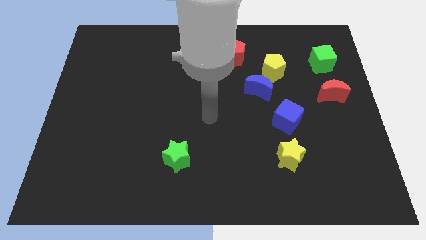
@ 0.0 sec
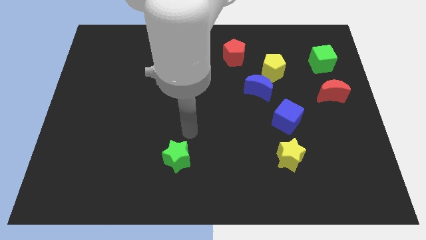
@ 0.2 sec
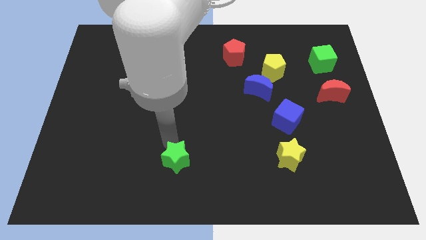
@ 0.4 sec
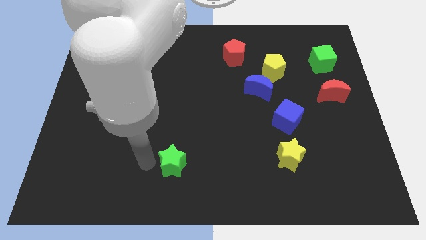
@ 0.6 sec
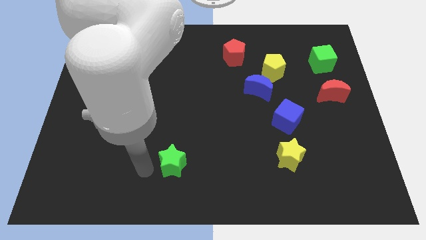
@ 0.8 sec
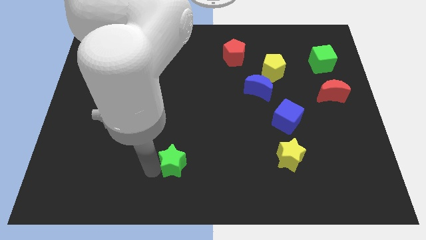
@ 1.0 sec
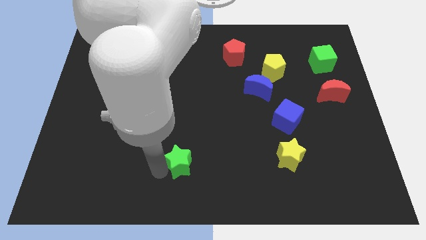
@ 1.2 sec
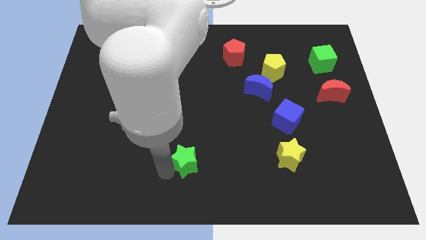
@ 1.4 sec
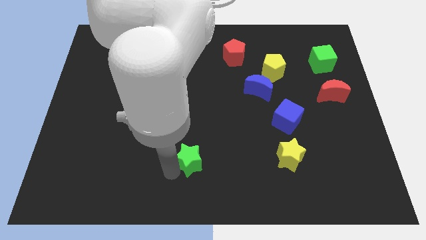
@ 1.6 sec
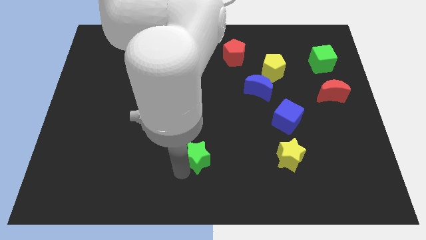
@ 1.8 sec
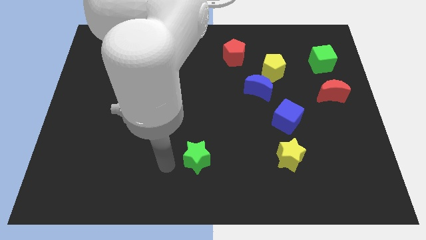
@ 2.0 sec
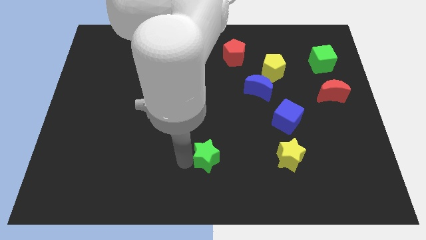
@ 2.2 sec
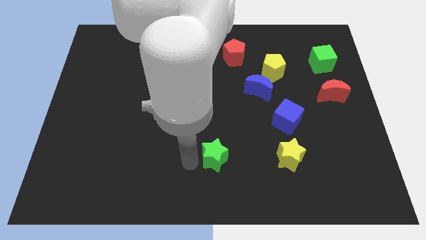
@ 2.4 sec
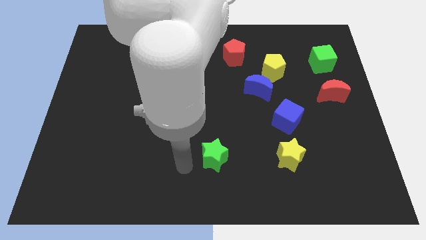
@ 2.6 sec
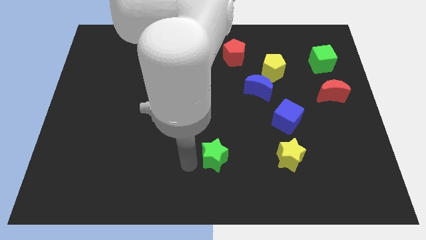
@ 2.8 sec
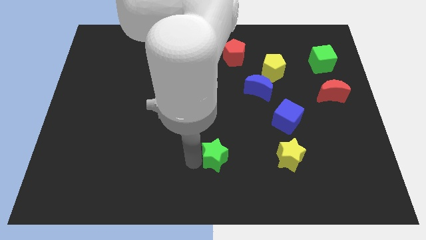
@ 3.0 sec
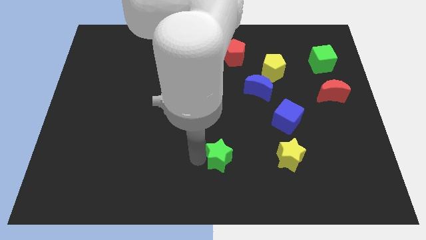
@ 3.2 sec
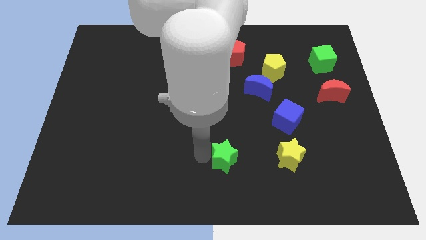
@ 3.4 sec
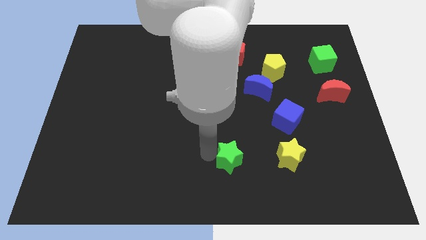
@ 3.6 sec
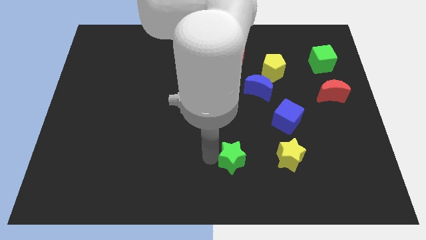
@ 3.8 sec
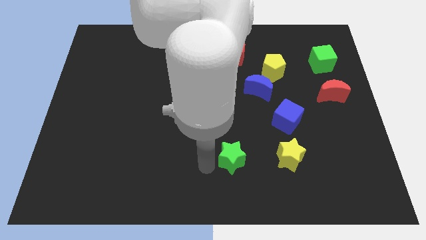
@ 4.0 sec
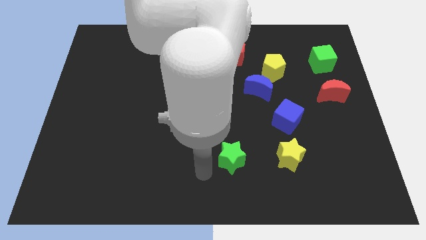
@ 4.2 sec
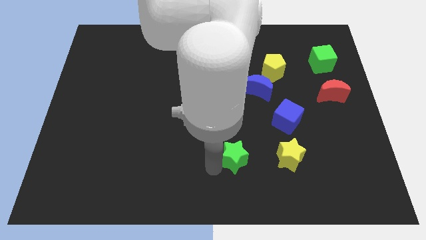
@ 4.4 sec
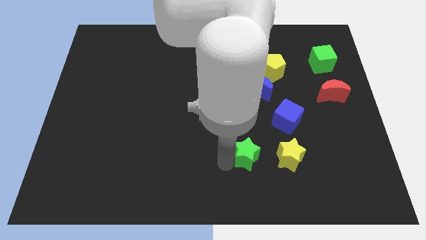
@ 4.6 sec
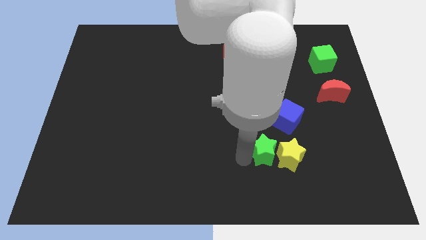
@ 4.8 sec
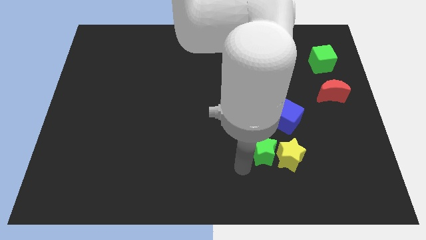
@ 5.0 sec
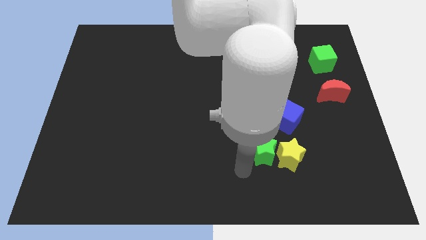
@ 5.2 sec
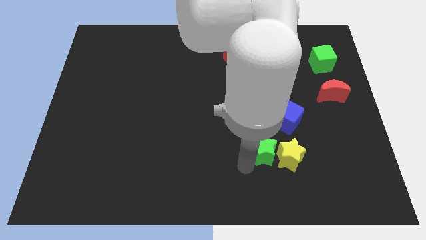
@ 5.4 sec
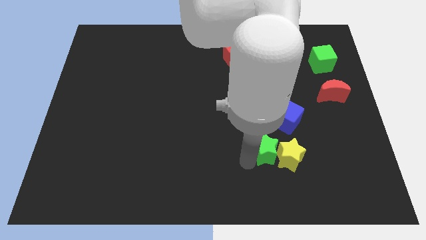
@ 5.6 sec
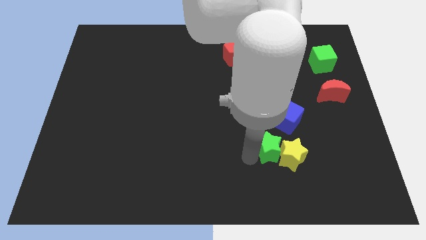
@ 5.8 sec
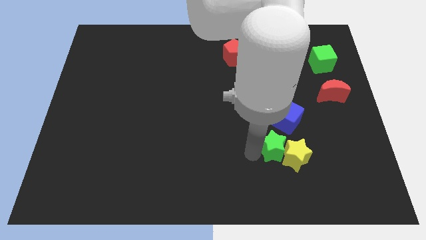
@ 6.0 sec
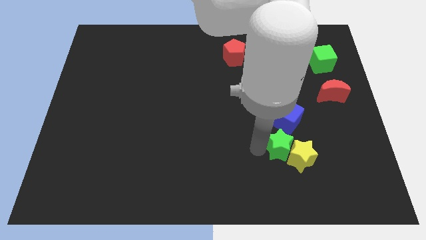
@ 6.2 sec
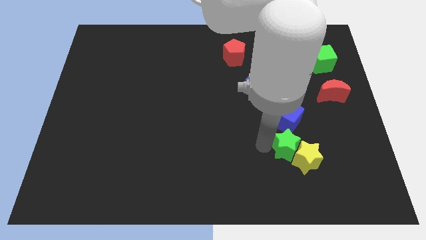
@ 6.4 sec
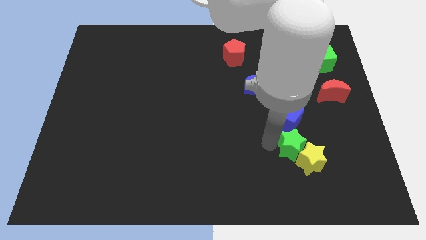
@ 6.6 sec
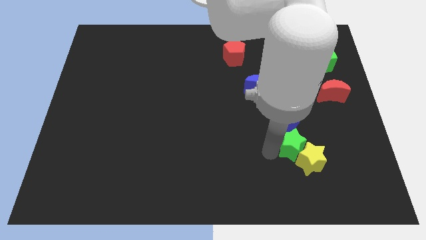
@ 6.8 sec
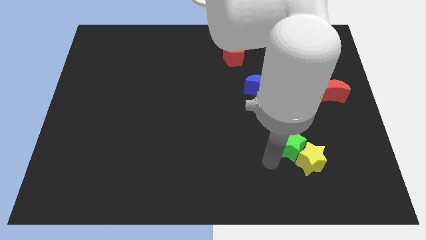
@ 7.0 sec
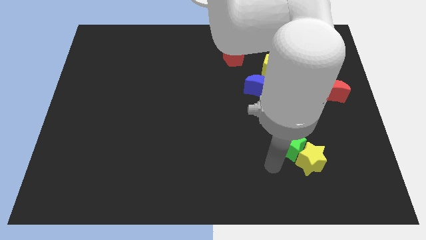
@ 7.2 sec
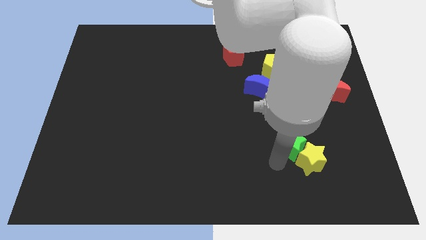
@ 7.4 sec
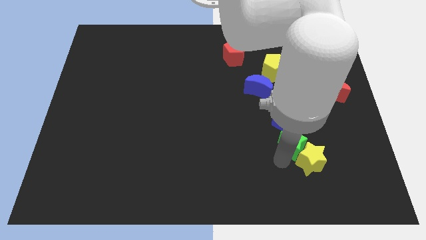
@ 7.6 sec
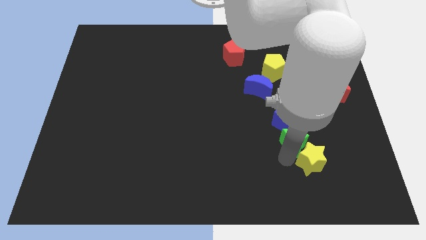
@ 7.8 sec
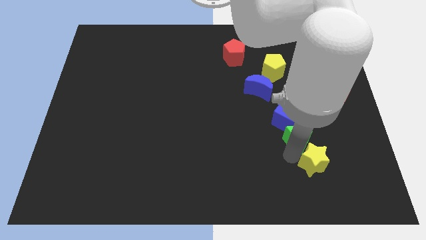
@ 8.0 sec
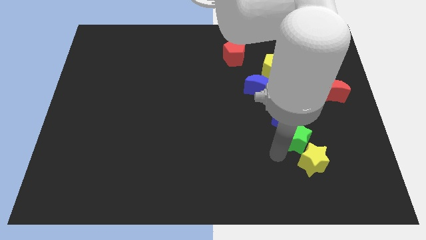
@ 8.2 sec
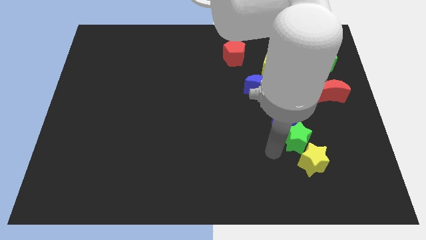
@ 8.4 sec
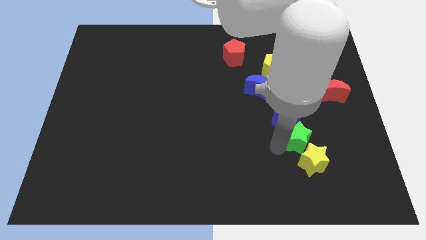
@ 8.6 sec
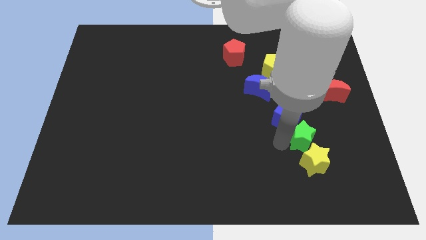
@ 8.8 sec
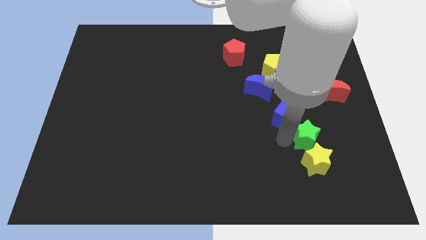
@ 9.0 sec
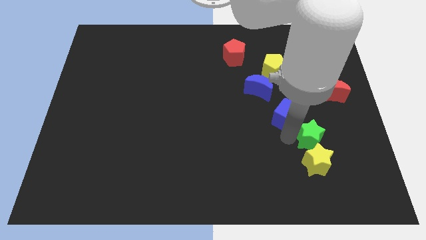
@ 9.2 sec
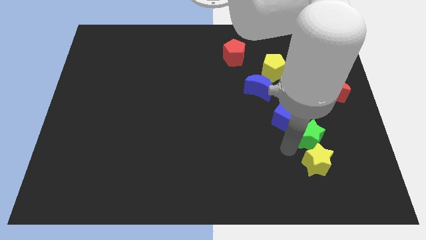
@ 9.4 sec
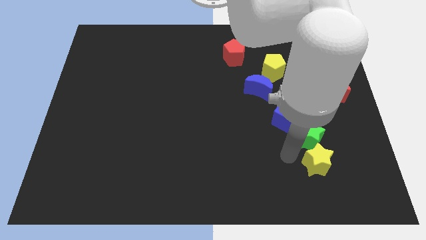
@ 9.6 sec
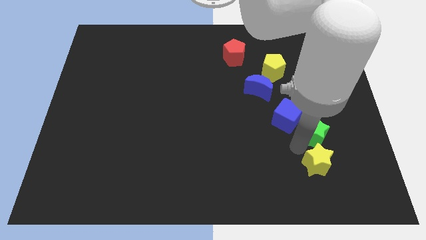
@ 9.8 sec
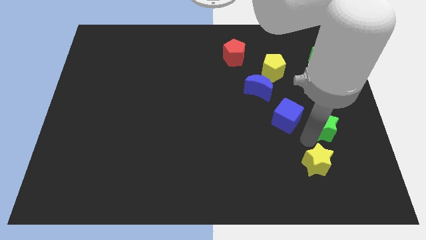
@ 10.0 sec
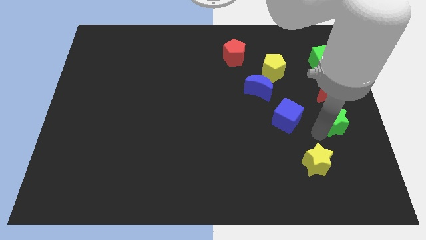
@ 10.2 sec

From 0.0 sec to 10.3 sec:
slide the green star to the center right

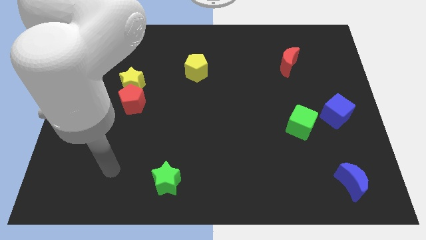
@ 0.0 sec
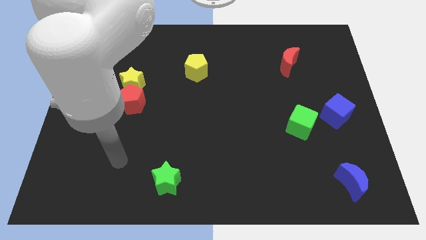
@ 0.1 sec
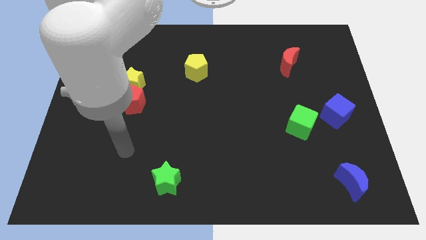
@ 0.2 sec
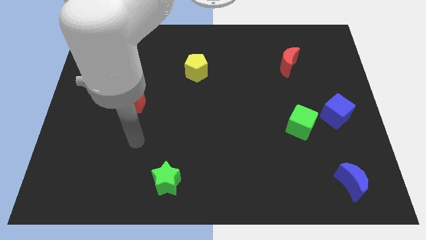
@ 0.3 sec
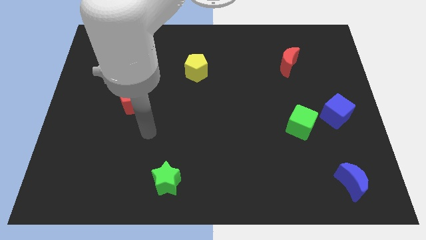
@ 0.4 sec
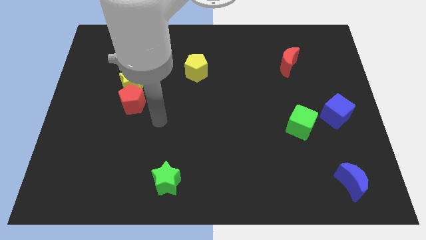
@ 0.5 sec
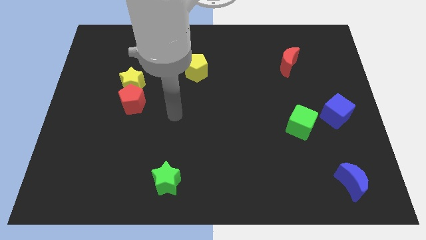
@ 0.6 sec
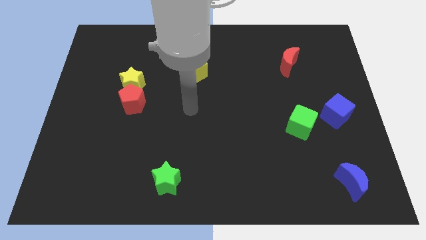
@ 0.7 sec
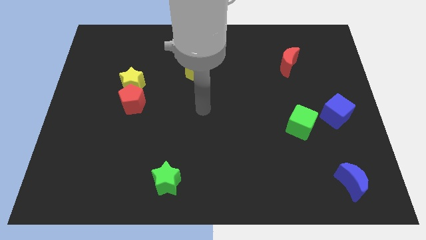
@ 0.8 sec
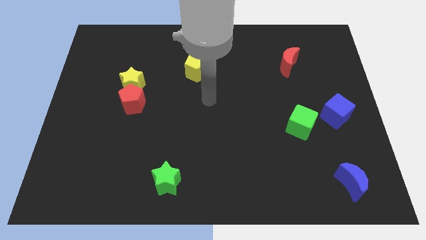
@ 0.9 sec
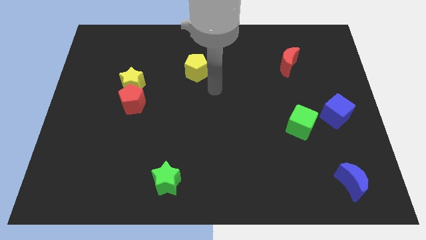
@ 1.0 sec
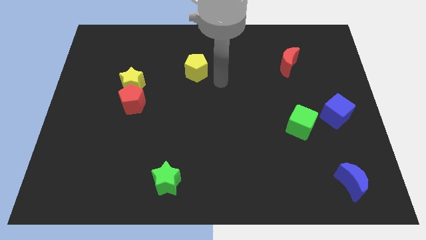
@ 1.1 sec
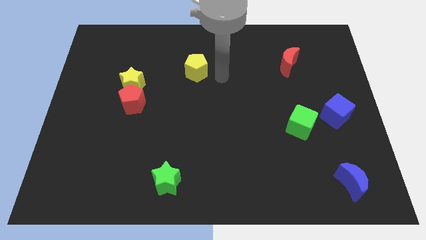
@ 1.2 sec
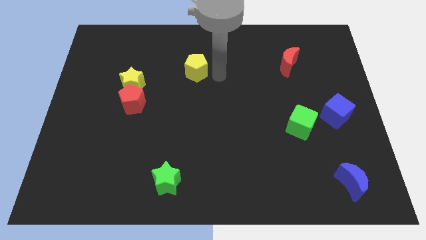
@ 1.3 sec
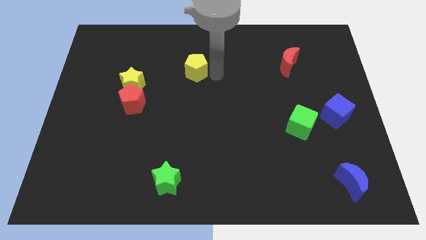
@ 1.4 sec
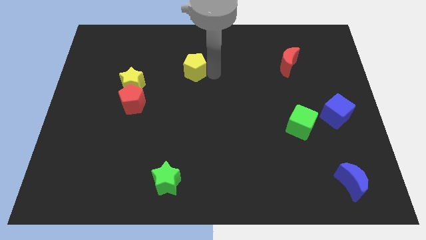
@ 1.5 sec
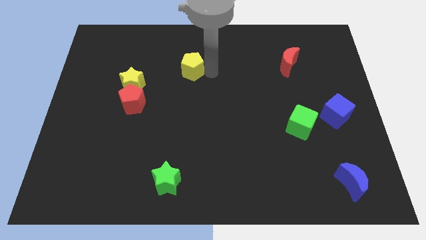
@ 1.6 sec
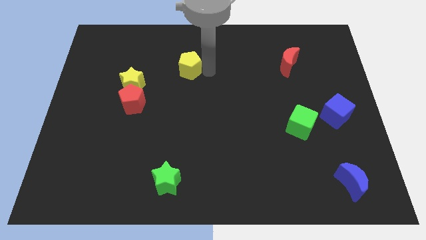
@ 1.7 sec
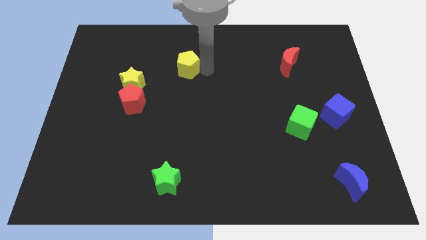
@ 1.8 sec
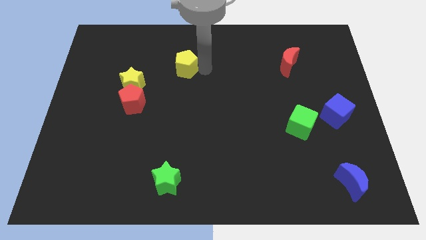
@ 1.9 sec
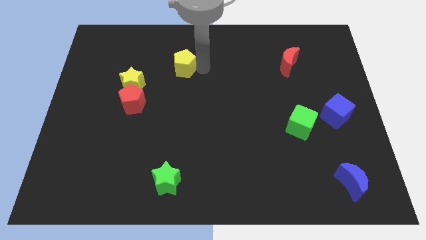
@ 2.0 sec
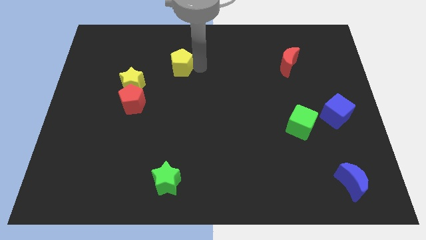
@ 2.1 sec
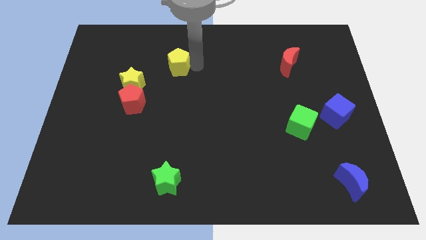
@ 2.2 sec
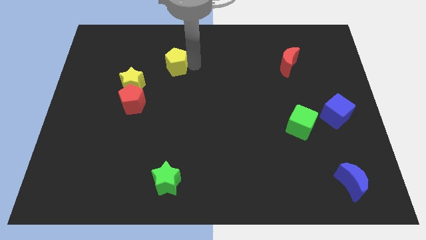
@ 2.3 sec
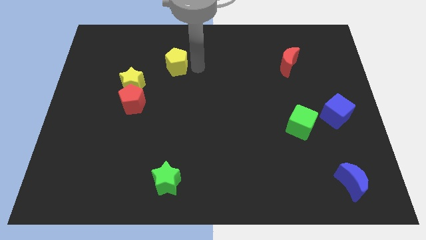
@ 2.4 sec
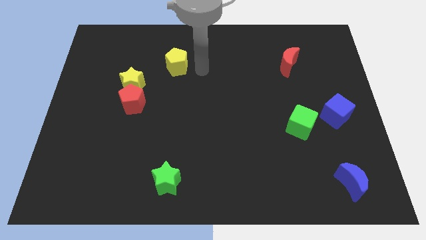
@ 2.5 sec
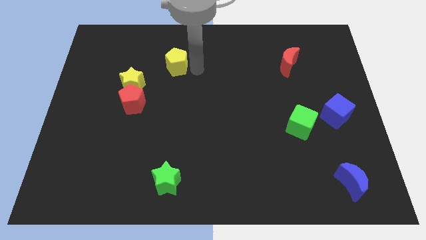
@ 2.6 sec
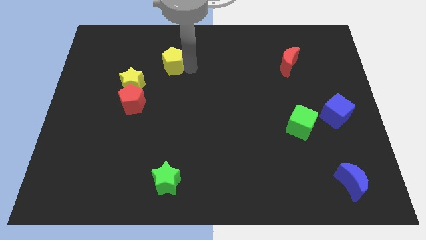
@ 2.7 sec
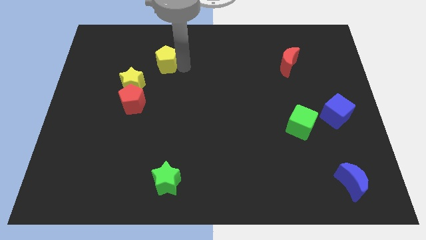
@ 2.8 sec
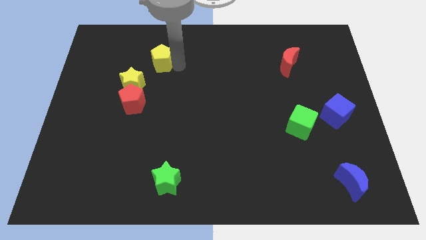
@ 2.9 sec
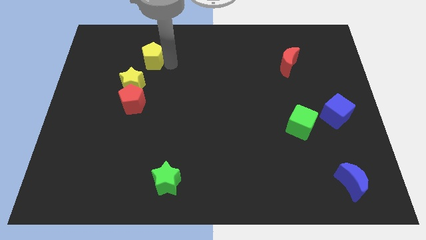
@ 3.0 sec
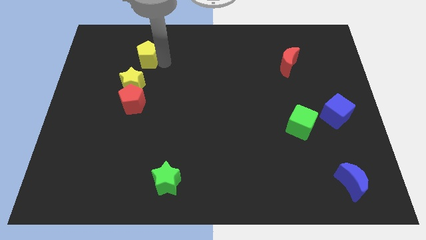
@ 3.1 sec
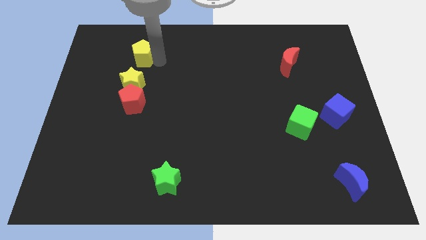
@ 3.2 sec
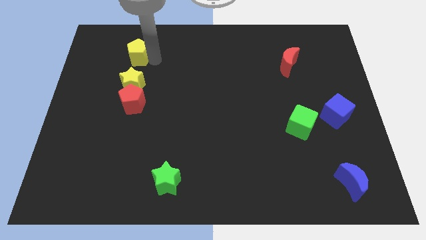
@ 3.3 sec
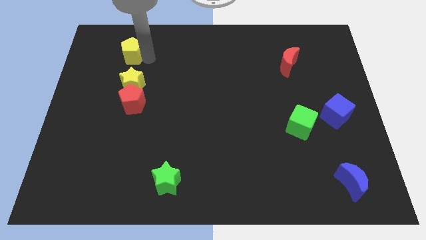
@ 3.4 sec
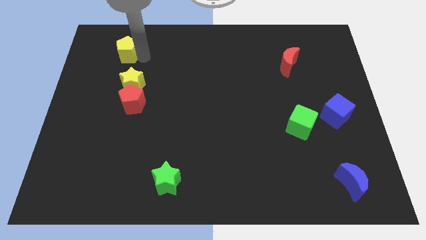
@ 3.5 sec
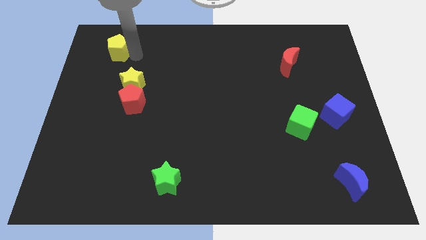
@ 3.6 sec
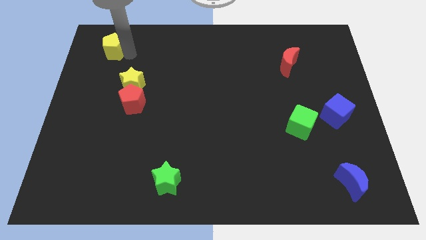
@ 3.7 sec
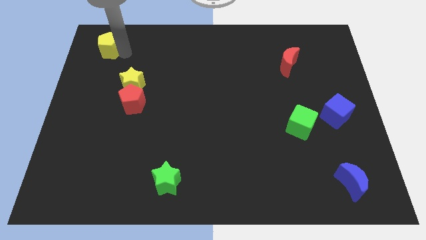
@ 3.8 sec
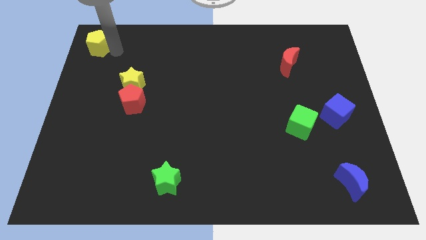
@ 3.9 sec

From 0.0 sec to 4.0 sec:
move the yellow pentagon to the upper left corner
